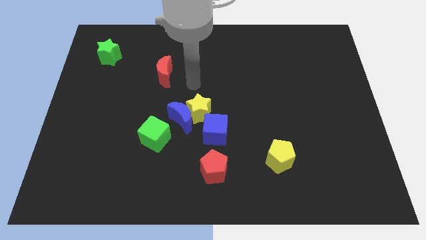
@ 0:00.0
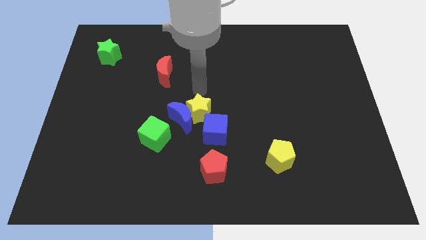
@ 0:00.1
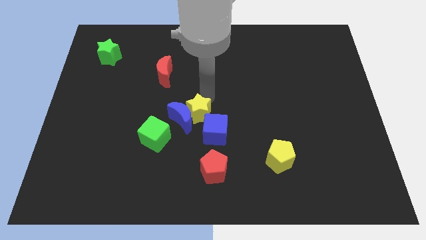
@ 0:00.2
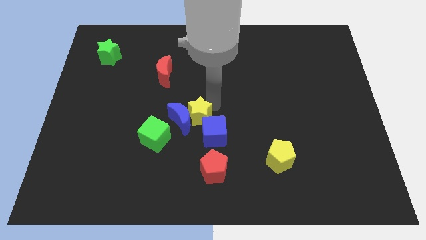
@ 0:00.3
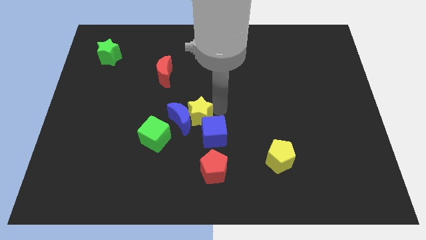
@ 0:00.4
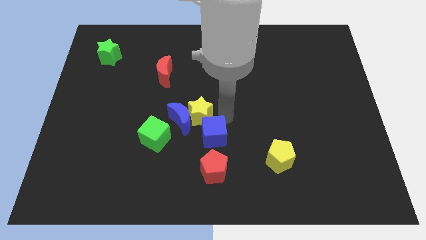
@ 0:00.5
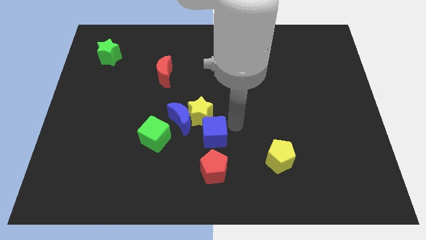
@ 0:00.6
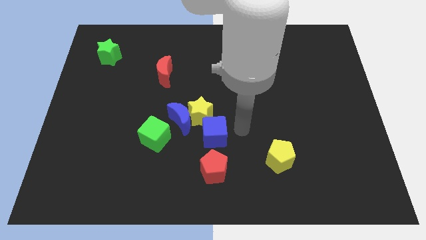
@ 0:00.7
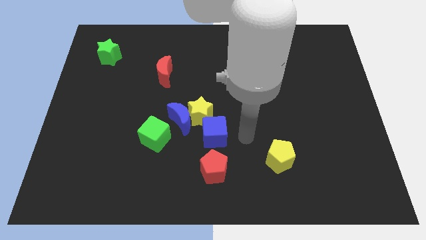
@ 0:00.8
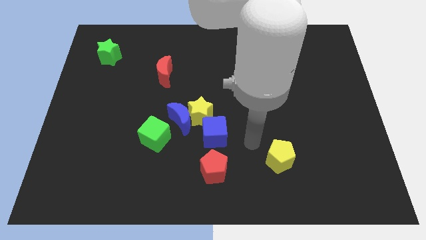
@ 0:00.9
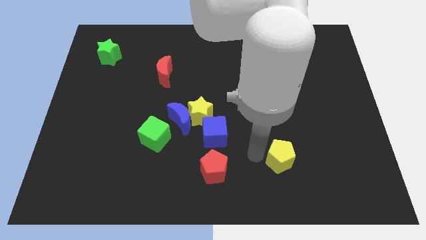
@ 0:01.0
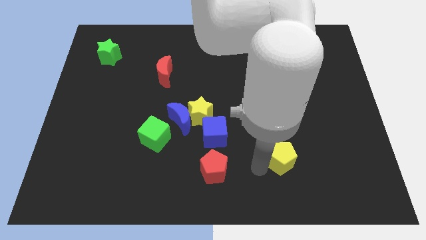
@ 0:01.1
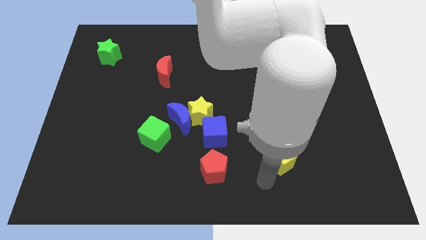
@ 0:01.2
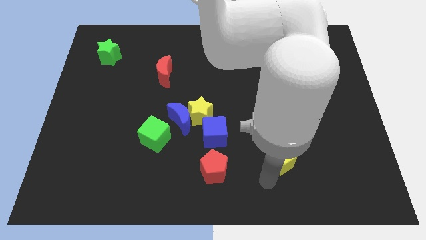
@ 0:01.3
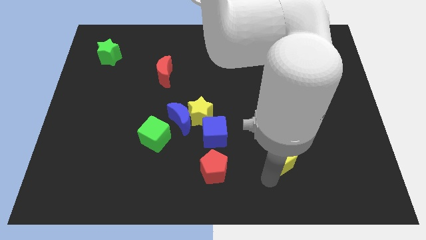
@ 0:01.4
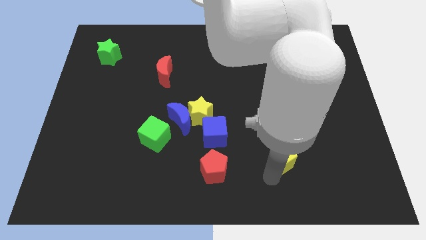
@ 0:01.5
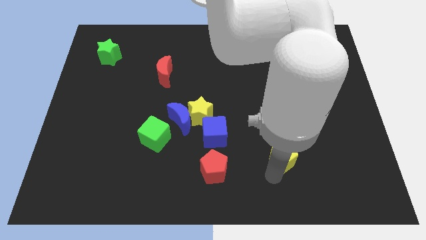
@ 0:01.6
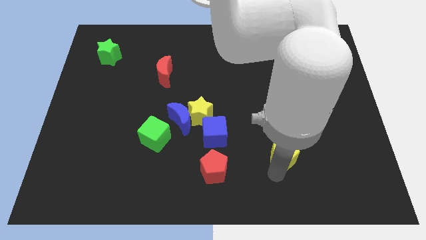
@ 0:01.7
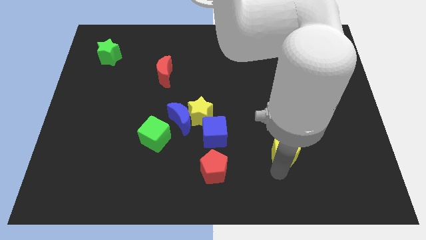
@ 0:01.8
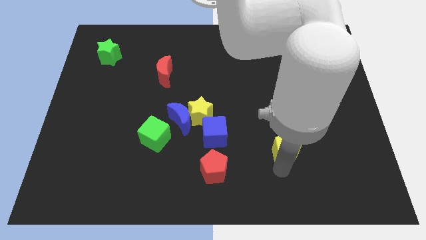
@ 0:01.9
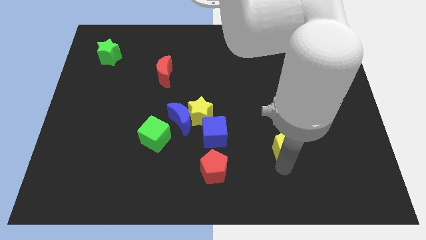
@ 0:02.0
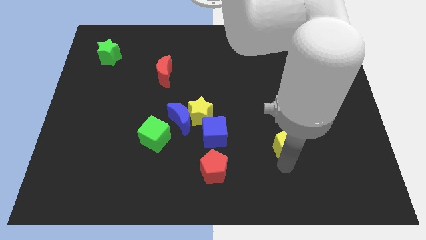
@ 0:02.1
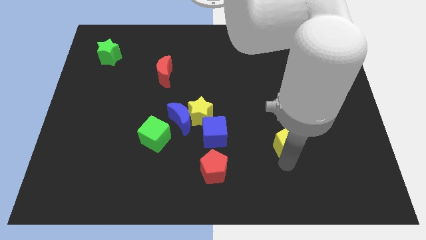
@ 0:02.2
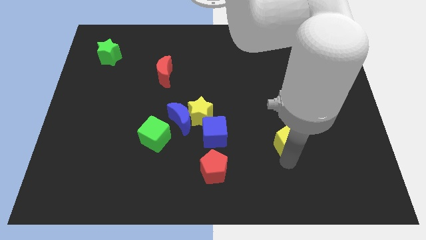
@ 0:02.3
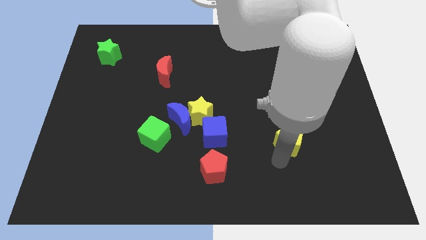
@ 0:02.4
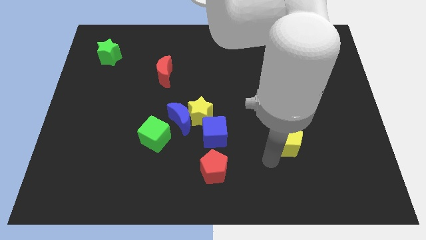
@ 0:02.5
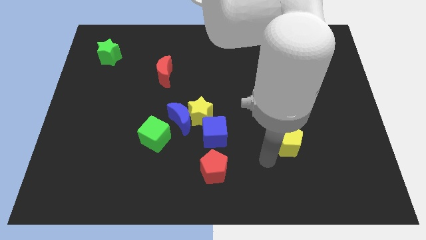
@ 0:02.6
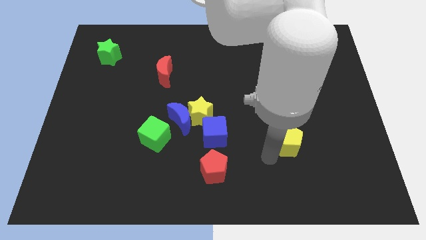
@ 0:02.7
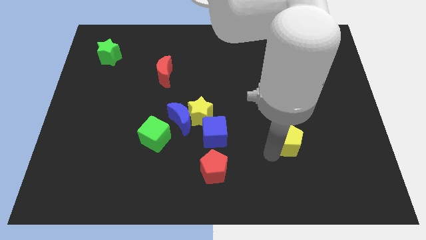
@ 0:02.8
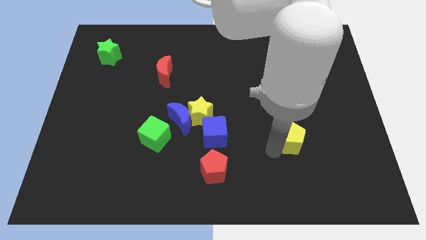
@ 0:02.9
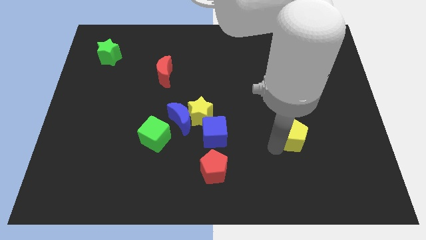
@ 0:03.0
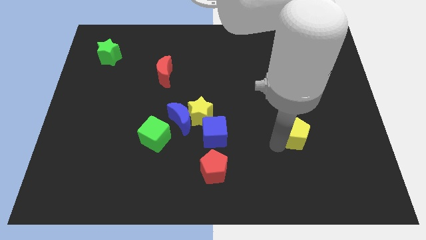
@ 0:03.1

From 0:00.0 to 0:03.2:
slightly push the yellow pentagon diagonally upwards and right

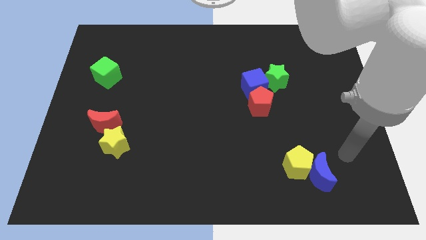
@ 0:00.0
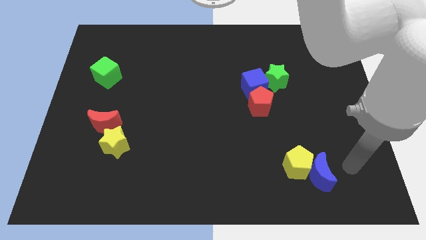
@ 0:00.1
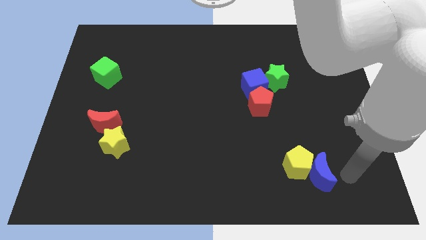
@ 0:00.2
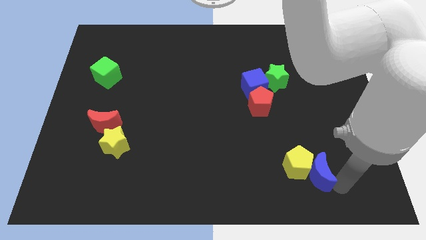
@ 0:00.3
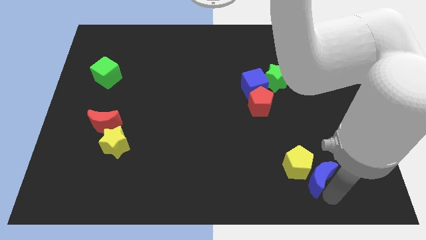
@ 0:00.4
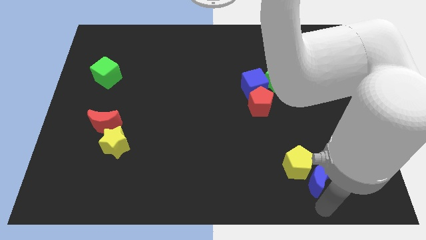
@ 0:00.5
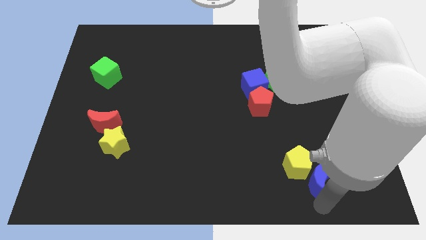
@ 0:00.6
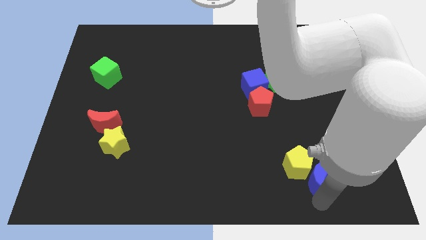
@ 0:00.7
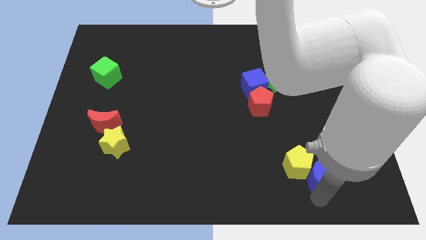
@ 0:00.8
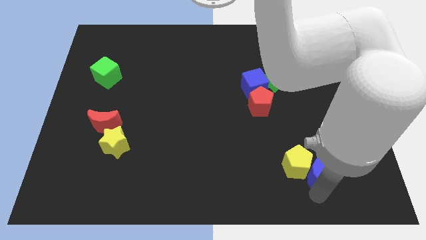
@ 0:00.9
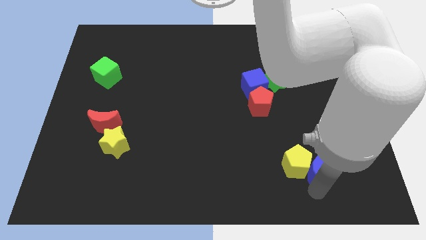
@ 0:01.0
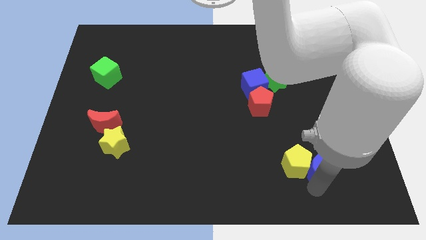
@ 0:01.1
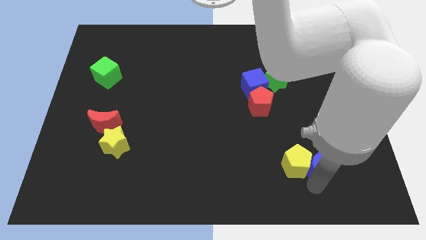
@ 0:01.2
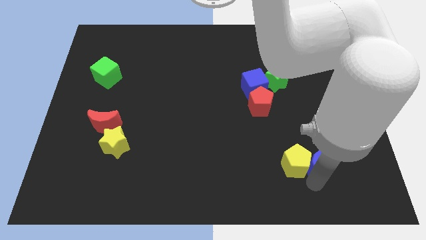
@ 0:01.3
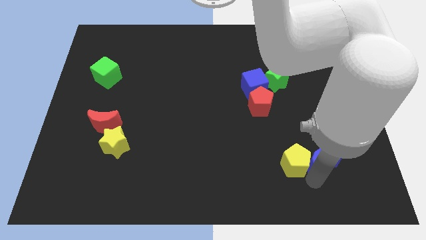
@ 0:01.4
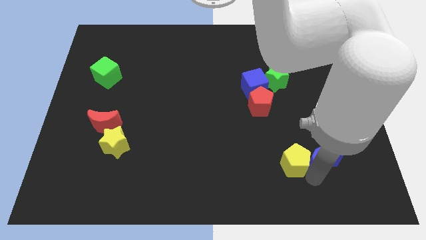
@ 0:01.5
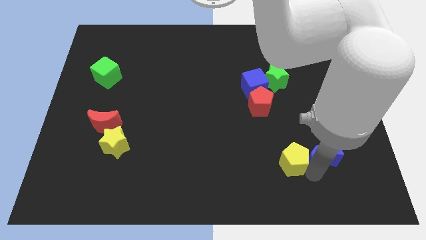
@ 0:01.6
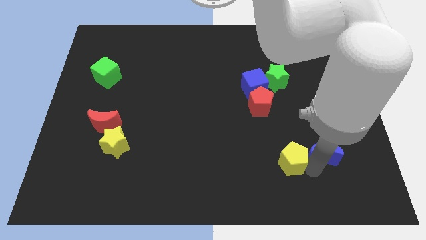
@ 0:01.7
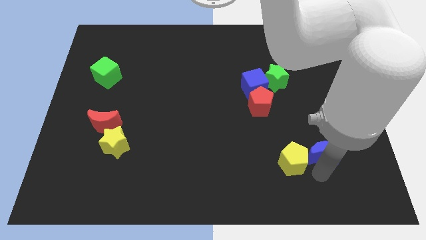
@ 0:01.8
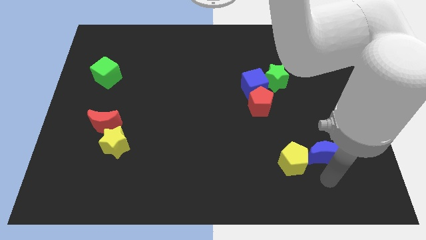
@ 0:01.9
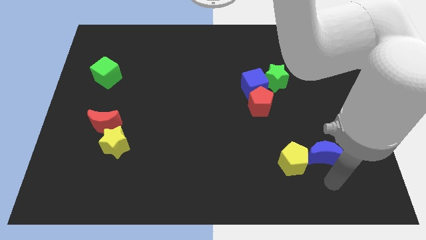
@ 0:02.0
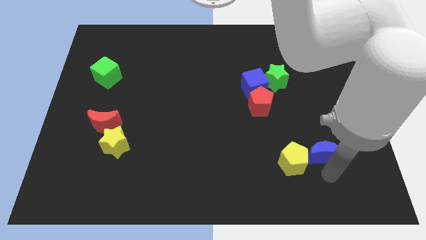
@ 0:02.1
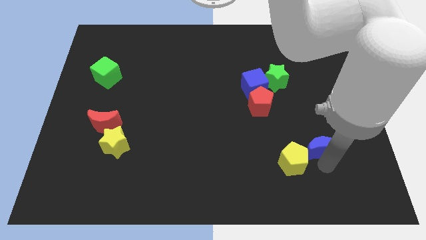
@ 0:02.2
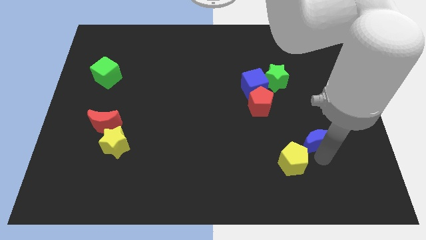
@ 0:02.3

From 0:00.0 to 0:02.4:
push the blue moon somewhat upwards

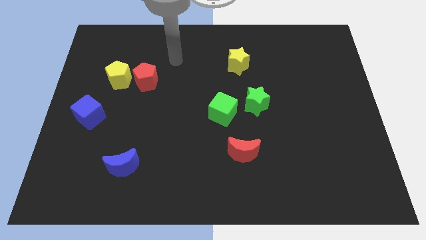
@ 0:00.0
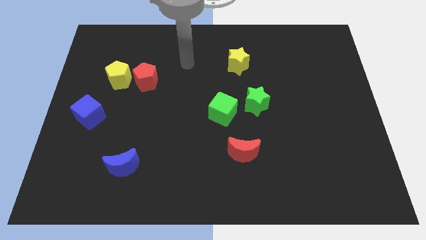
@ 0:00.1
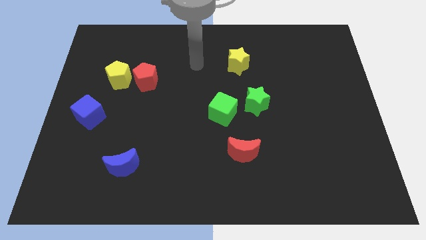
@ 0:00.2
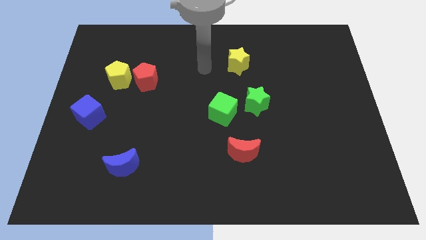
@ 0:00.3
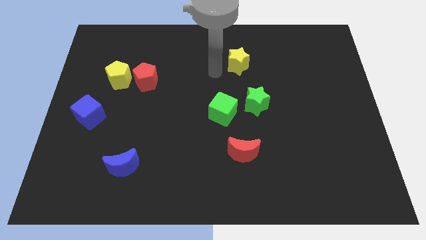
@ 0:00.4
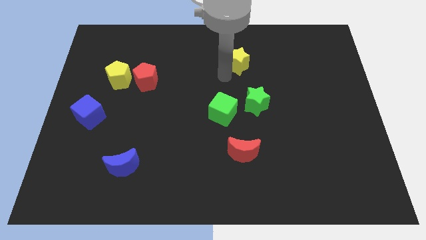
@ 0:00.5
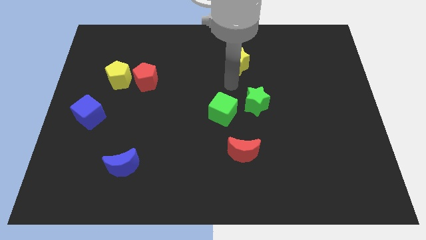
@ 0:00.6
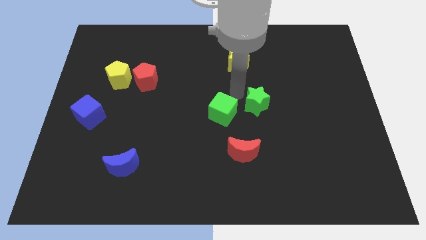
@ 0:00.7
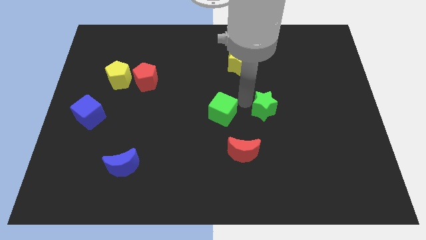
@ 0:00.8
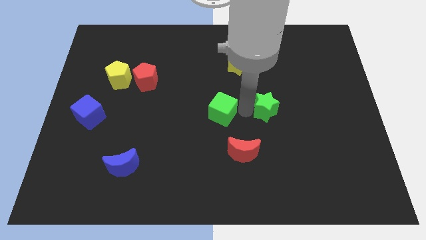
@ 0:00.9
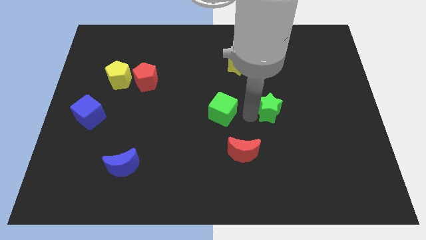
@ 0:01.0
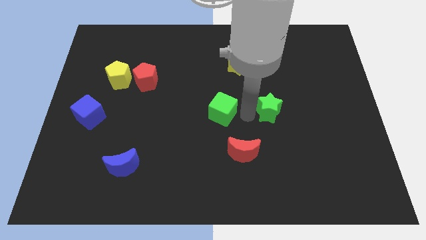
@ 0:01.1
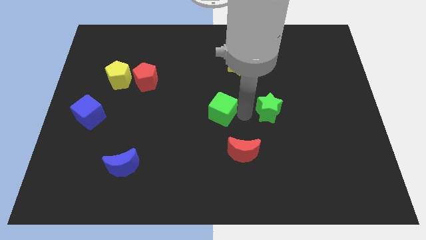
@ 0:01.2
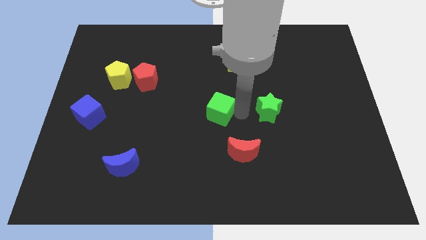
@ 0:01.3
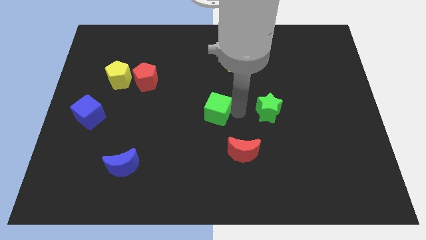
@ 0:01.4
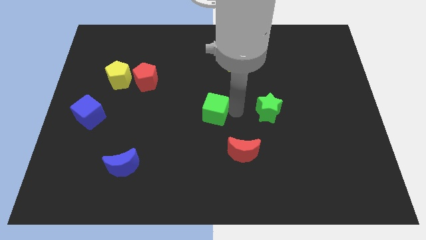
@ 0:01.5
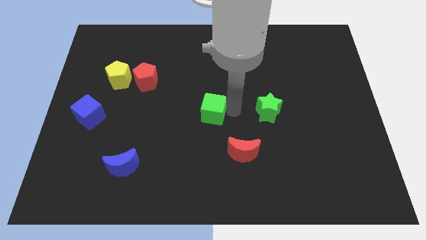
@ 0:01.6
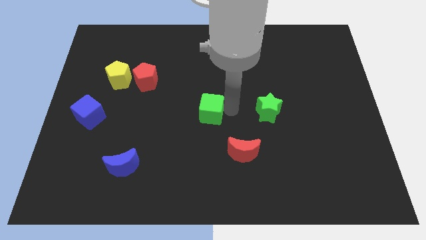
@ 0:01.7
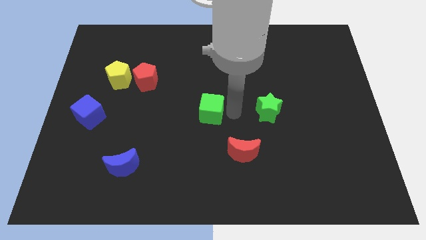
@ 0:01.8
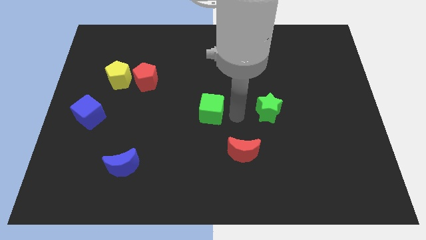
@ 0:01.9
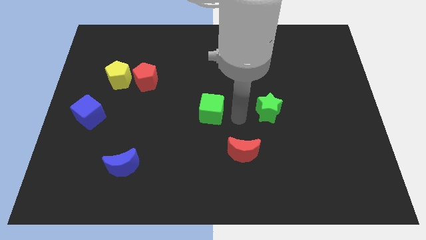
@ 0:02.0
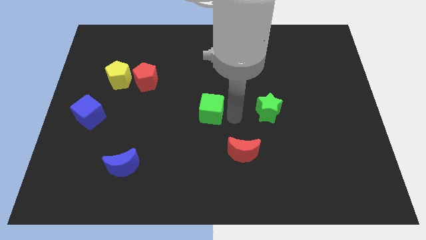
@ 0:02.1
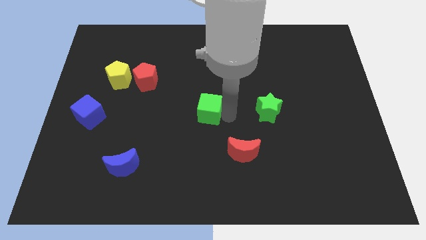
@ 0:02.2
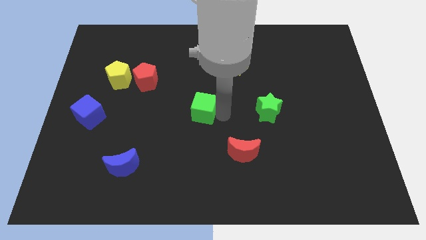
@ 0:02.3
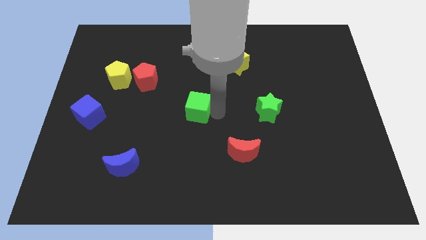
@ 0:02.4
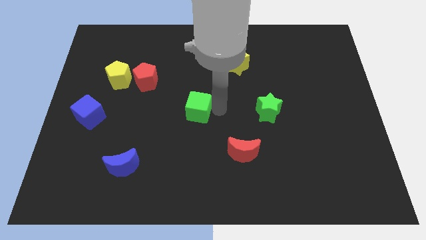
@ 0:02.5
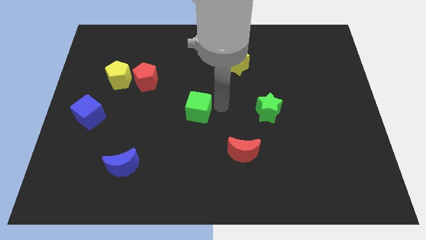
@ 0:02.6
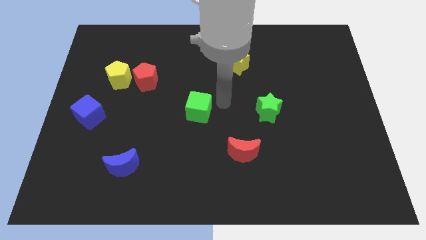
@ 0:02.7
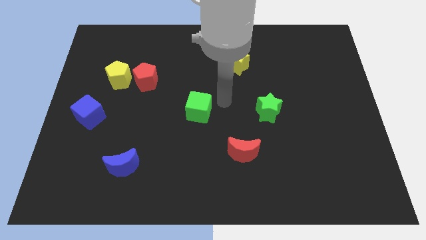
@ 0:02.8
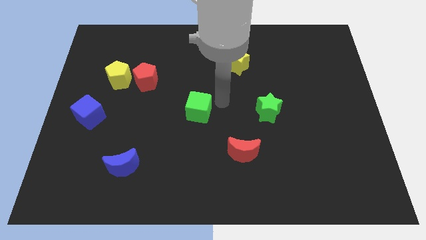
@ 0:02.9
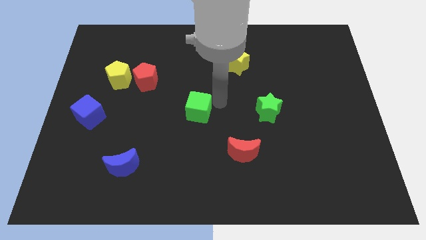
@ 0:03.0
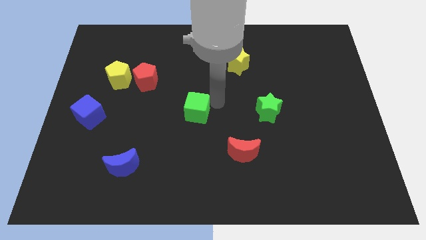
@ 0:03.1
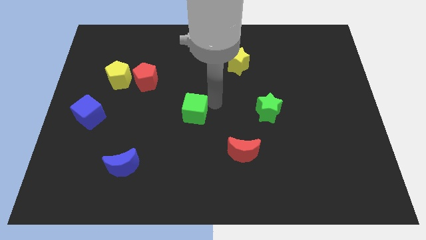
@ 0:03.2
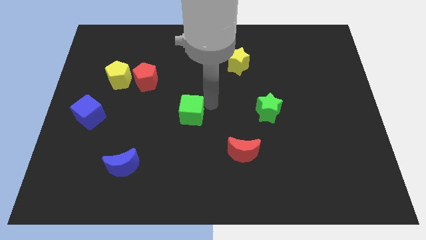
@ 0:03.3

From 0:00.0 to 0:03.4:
slightly push the green cube left
